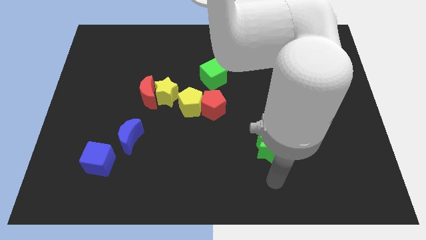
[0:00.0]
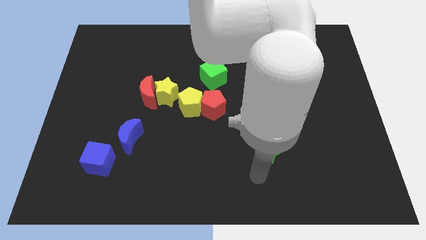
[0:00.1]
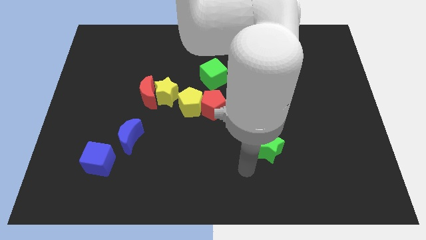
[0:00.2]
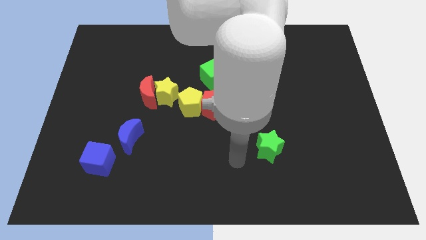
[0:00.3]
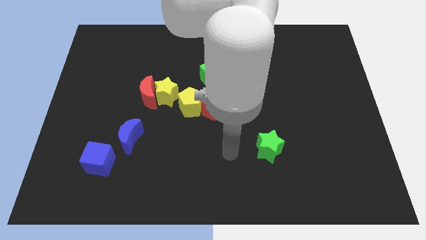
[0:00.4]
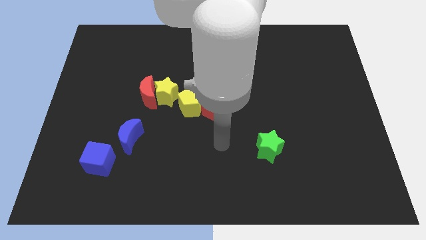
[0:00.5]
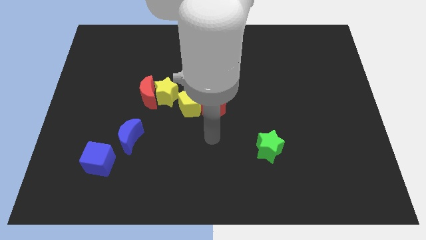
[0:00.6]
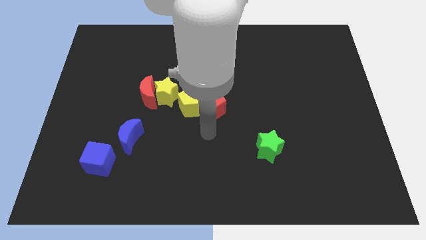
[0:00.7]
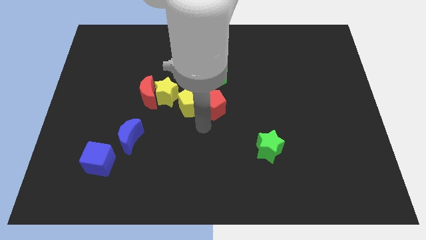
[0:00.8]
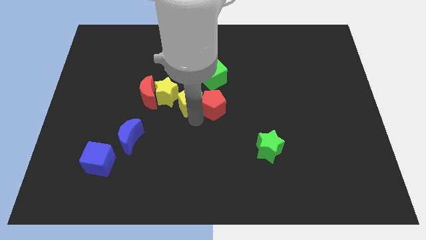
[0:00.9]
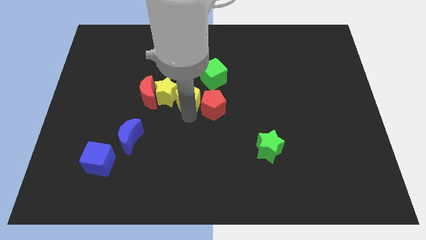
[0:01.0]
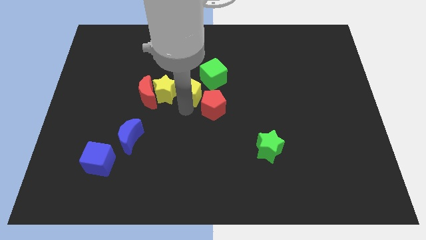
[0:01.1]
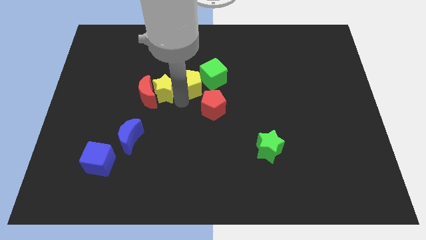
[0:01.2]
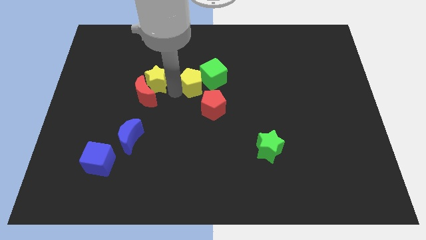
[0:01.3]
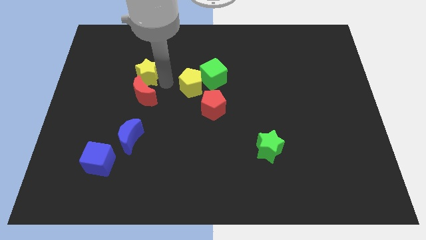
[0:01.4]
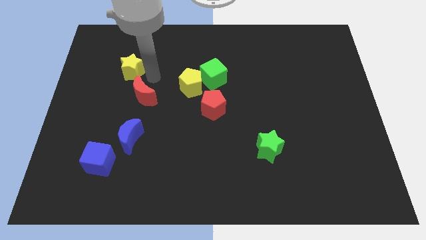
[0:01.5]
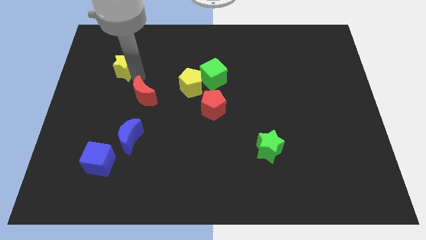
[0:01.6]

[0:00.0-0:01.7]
pull the red moon apart from the yellow star

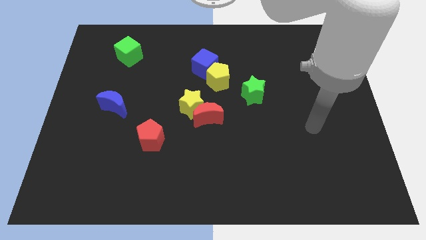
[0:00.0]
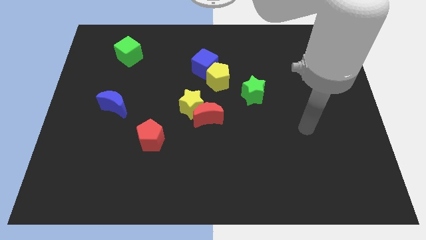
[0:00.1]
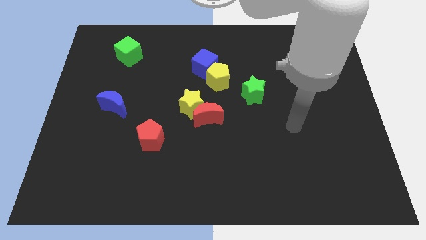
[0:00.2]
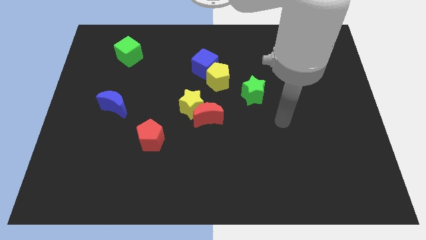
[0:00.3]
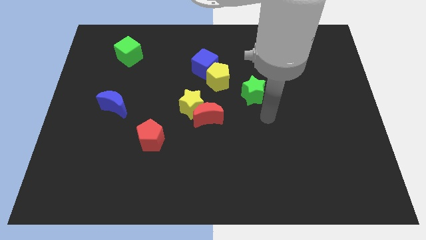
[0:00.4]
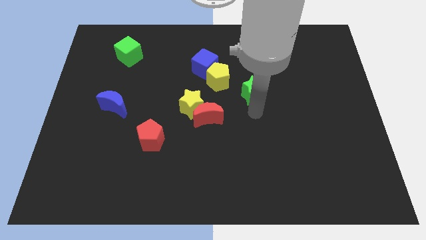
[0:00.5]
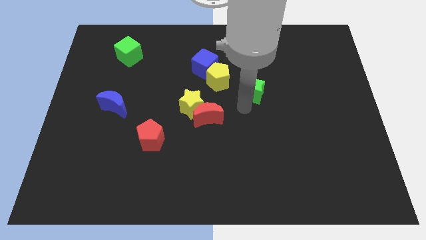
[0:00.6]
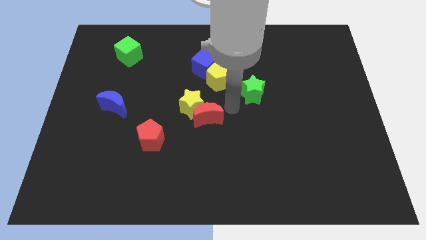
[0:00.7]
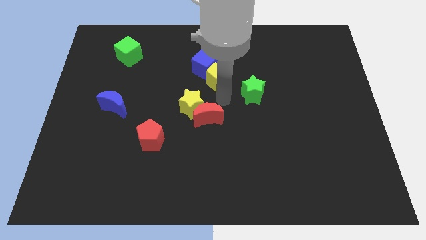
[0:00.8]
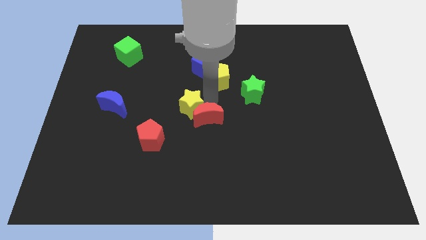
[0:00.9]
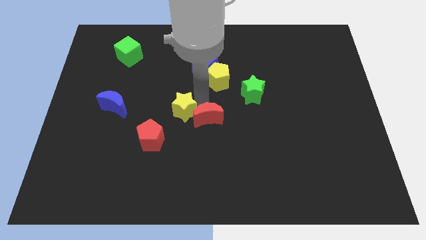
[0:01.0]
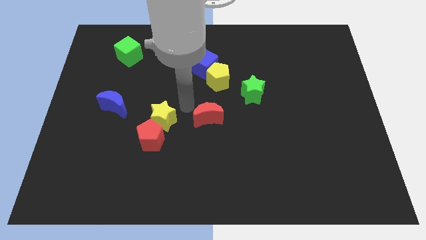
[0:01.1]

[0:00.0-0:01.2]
move the red moon away from the yellow star

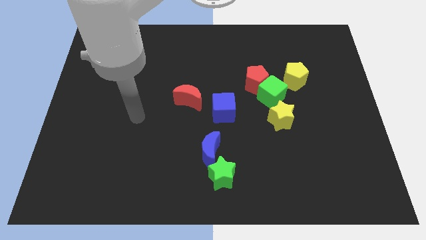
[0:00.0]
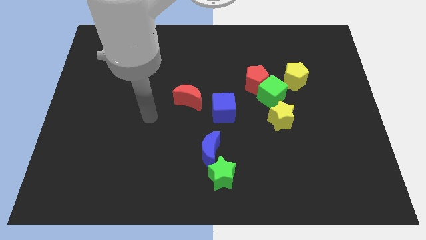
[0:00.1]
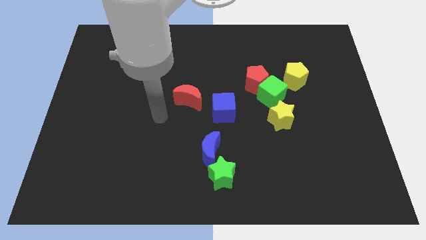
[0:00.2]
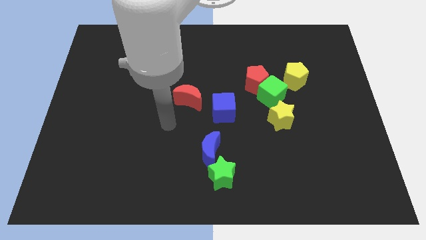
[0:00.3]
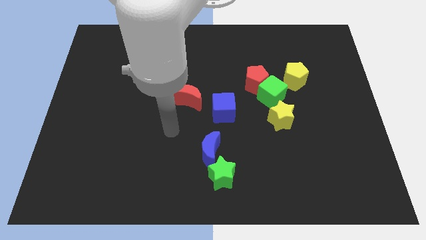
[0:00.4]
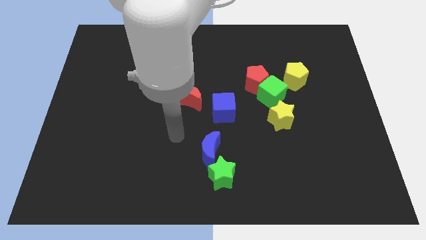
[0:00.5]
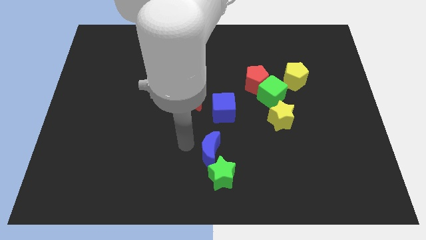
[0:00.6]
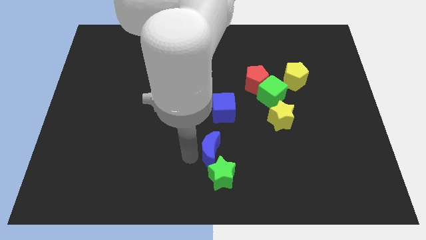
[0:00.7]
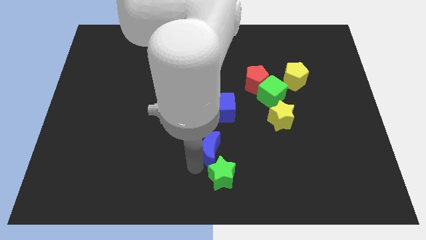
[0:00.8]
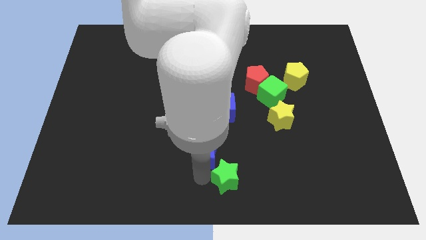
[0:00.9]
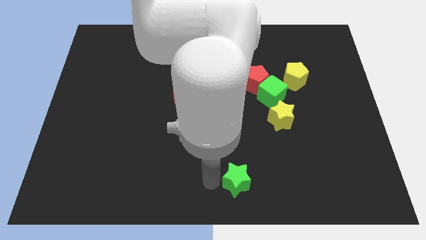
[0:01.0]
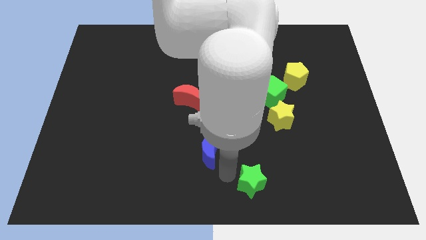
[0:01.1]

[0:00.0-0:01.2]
move the blue moon away from the green star

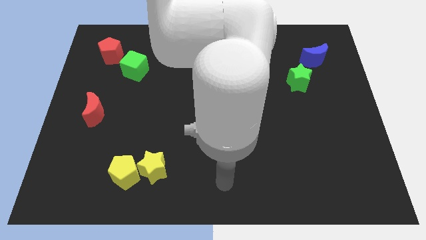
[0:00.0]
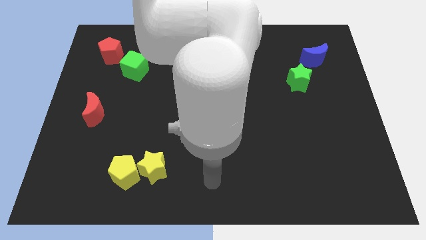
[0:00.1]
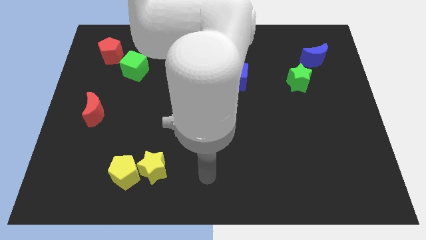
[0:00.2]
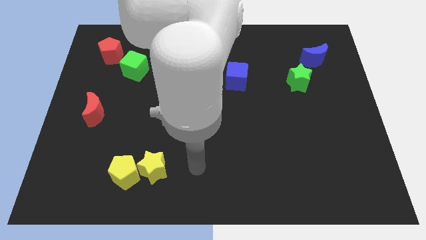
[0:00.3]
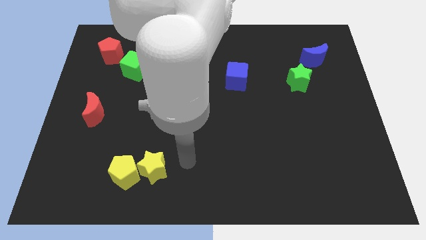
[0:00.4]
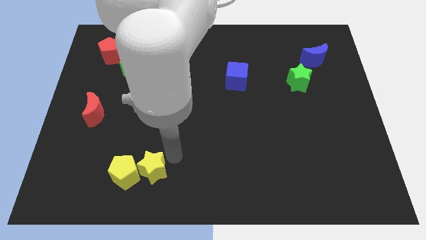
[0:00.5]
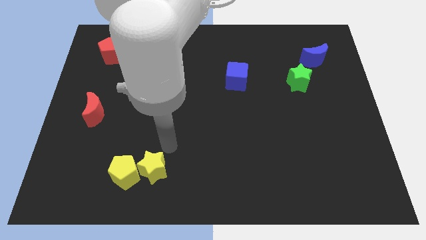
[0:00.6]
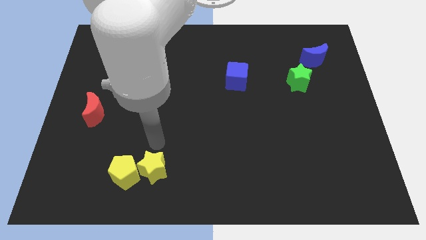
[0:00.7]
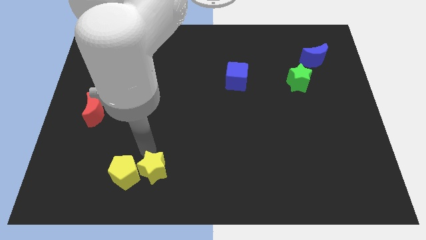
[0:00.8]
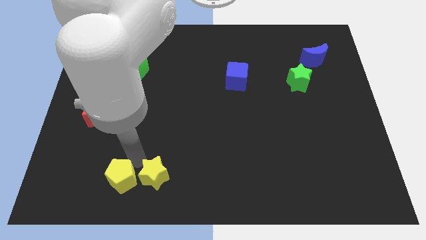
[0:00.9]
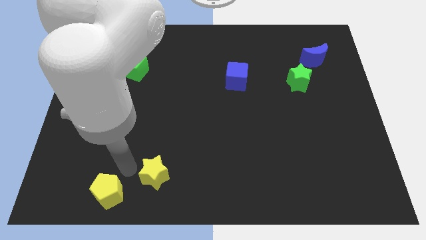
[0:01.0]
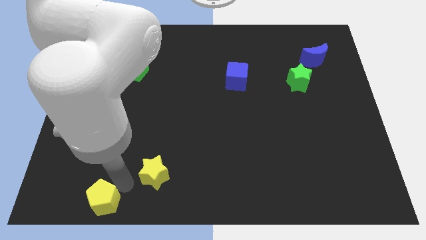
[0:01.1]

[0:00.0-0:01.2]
pull the yellow star apart from the yellow pentagon

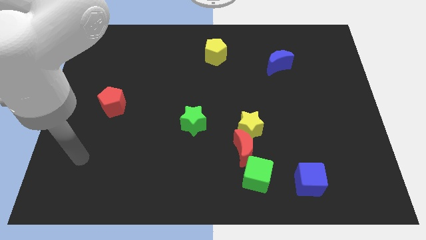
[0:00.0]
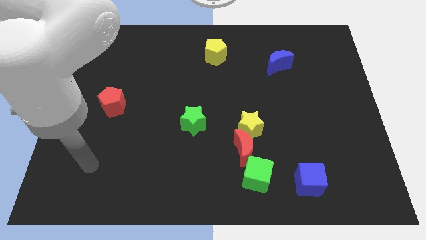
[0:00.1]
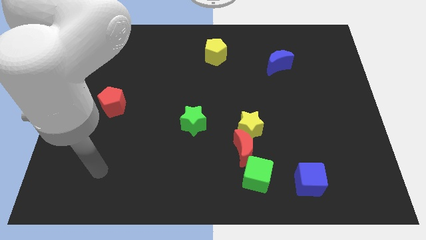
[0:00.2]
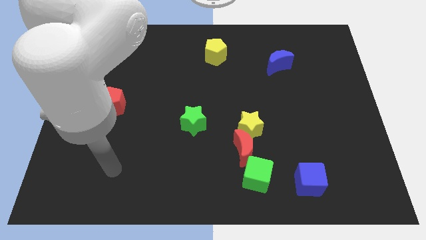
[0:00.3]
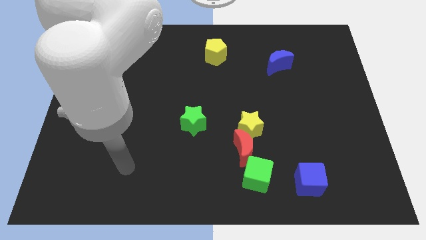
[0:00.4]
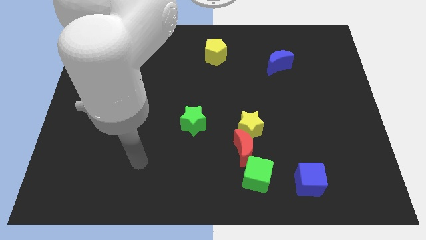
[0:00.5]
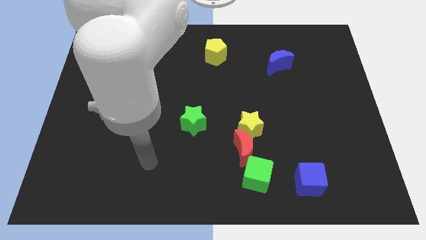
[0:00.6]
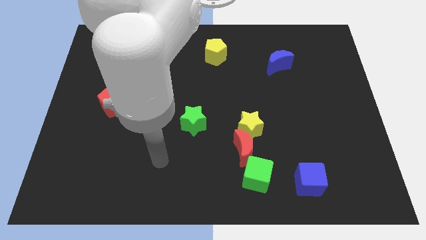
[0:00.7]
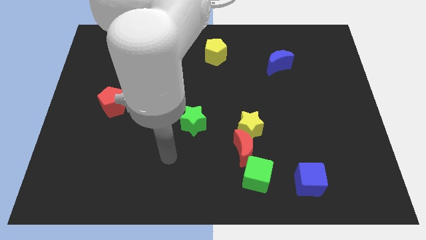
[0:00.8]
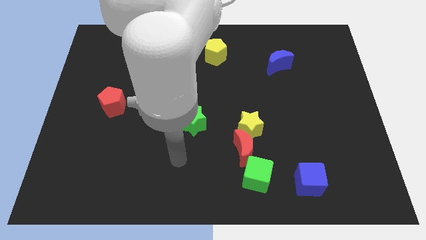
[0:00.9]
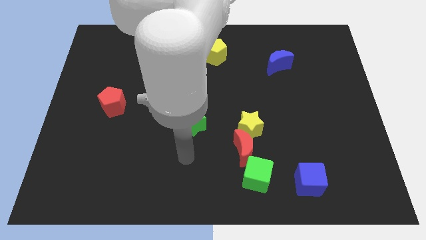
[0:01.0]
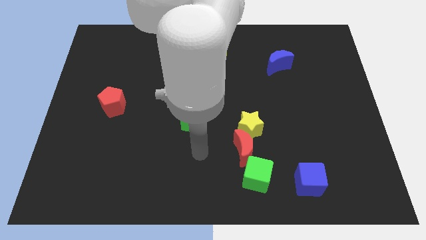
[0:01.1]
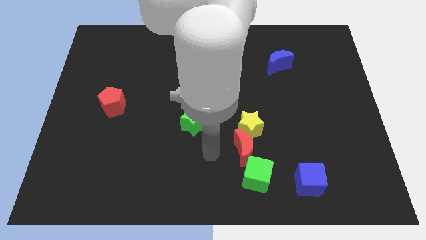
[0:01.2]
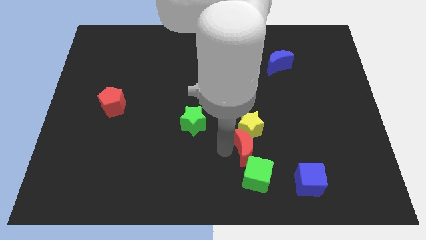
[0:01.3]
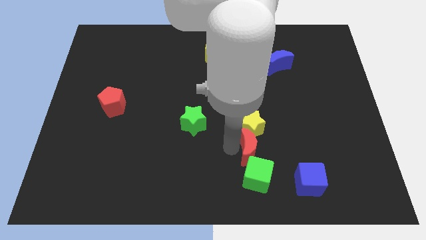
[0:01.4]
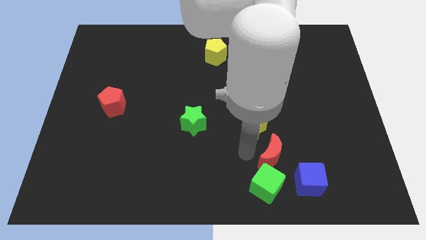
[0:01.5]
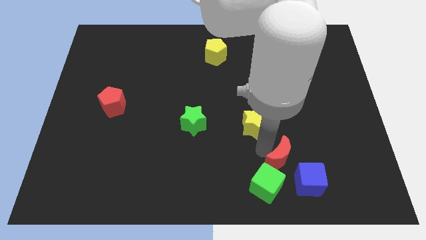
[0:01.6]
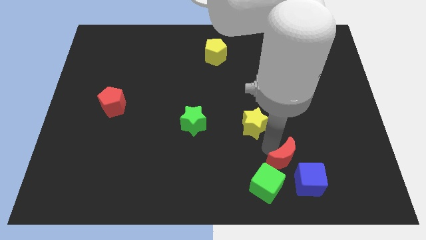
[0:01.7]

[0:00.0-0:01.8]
move the yellow star away from the red moon

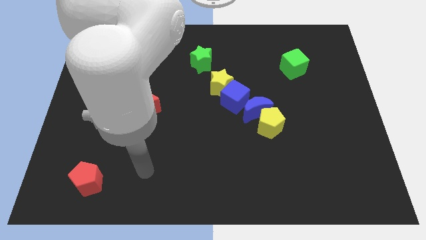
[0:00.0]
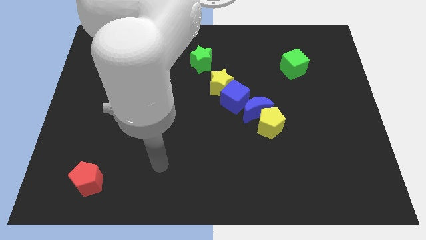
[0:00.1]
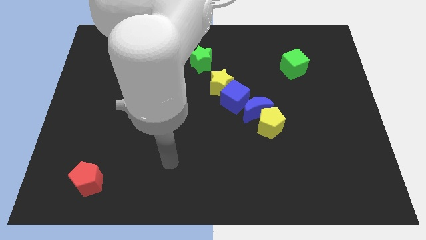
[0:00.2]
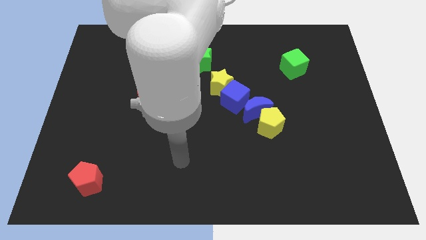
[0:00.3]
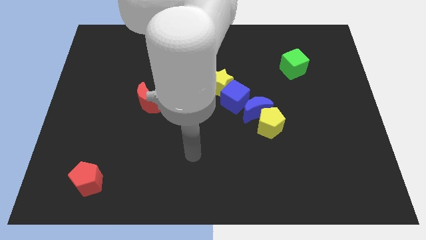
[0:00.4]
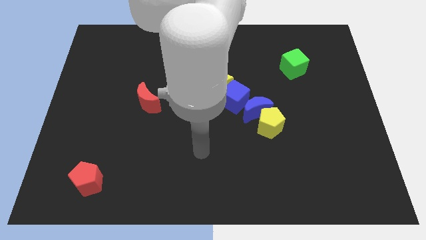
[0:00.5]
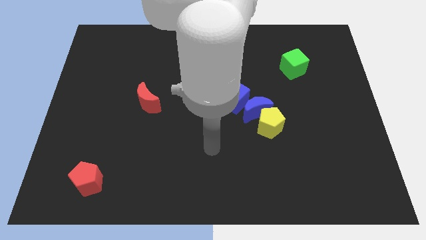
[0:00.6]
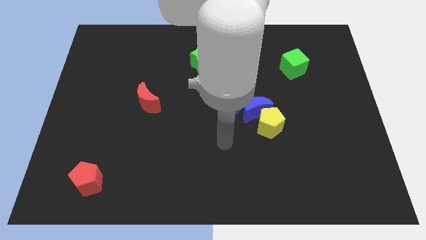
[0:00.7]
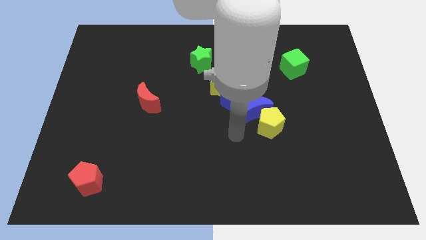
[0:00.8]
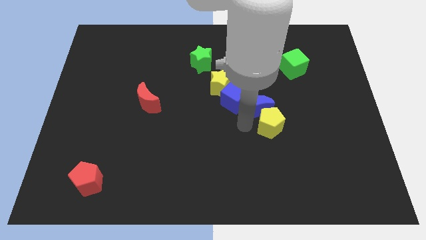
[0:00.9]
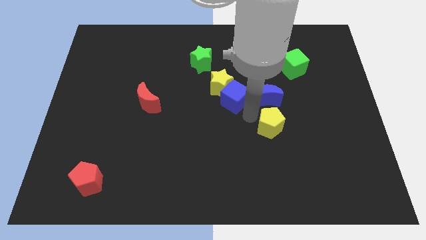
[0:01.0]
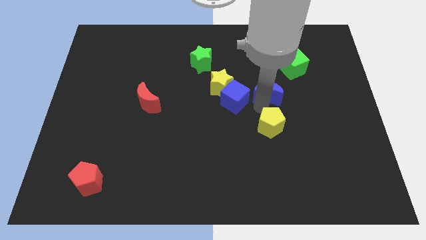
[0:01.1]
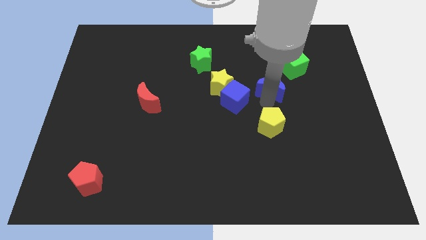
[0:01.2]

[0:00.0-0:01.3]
move the yellow pentagon away from the blue moon

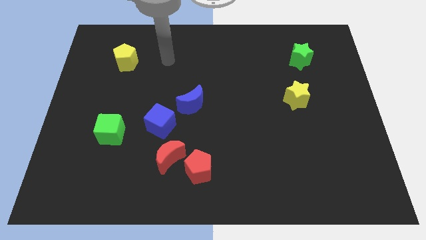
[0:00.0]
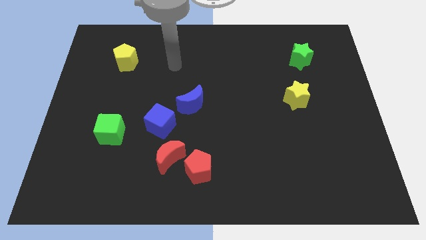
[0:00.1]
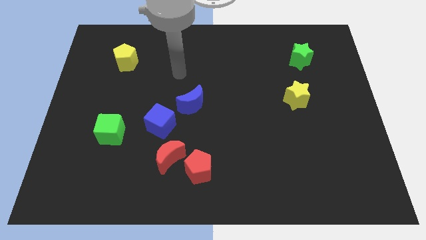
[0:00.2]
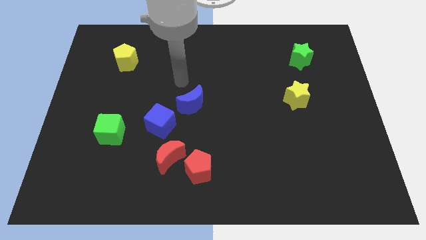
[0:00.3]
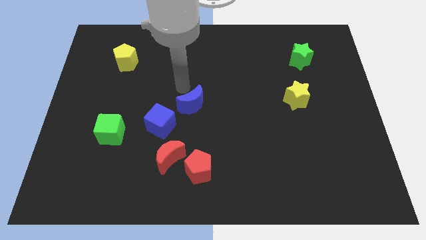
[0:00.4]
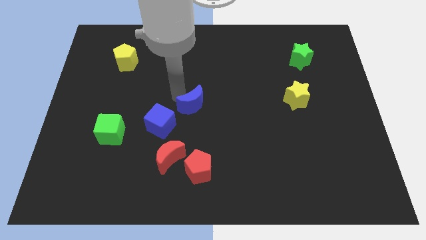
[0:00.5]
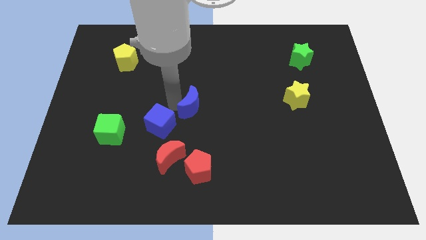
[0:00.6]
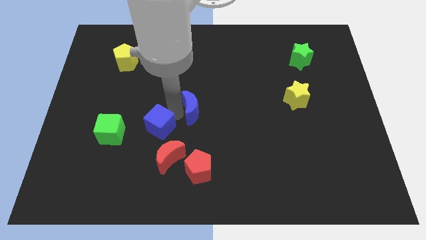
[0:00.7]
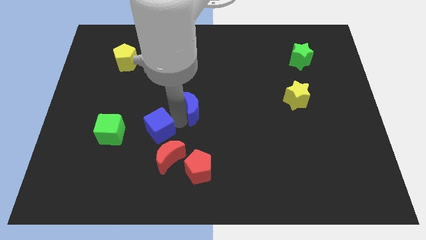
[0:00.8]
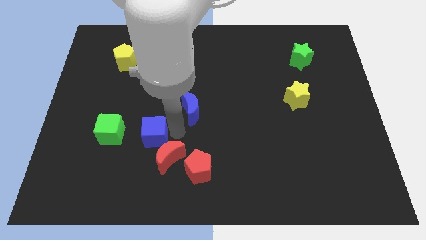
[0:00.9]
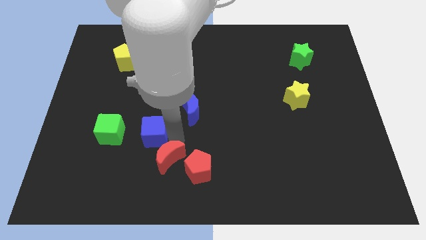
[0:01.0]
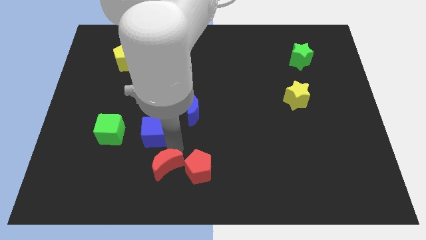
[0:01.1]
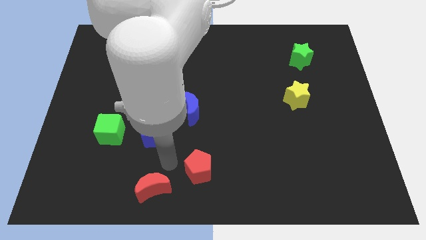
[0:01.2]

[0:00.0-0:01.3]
separate the red pentagon from the red moon
